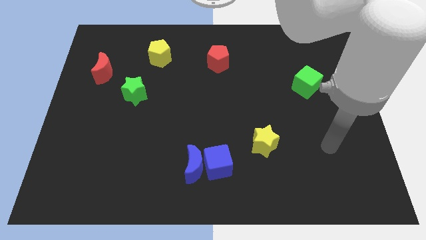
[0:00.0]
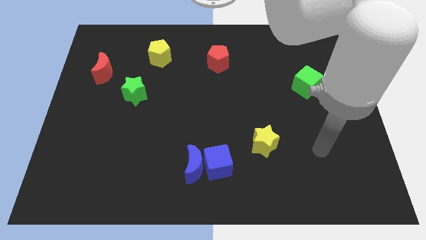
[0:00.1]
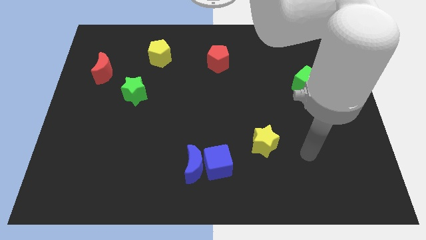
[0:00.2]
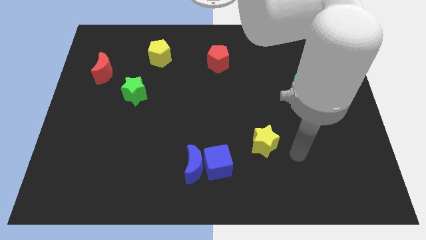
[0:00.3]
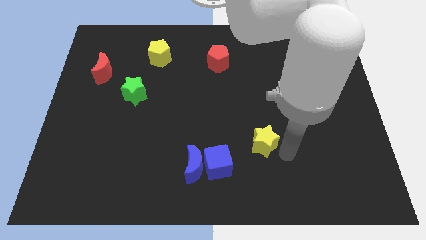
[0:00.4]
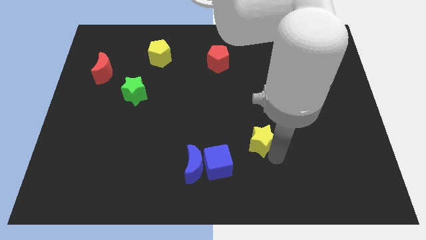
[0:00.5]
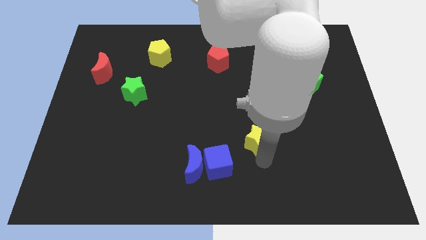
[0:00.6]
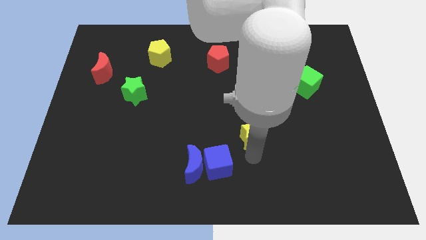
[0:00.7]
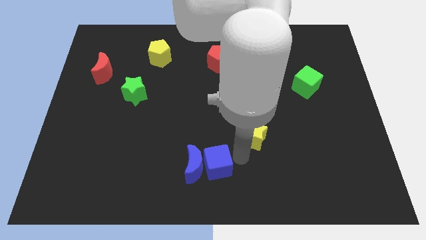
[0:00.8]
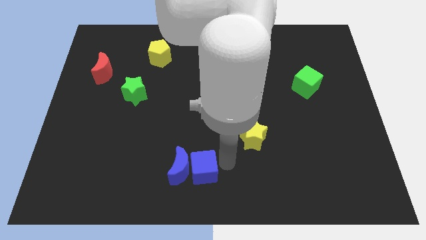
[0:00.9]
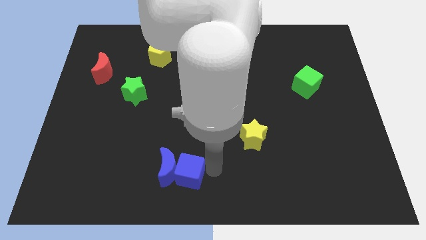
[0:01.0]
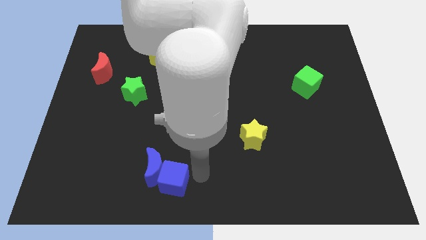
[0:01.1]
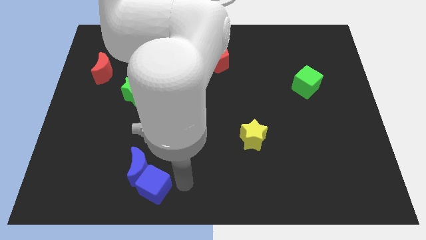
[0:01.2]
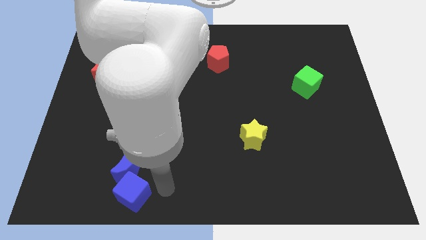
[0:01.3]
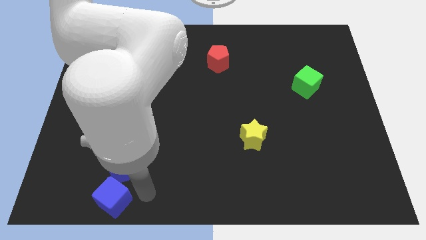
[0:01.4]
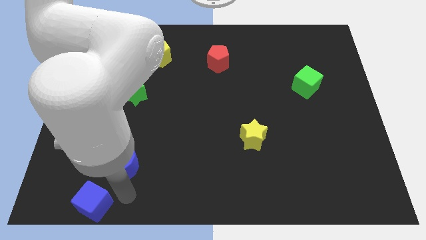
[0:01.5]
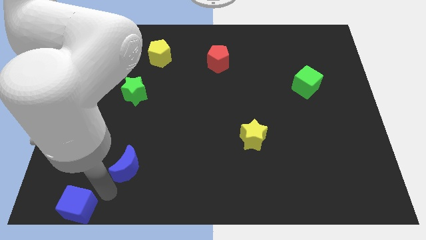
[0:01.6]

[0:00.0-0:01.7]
move the blue moon away from the blue cube

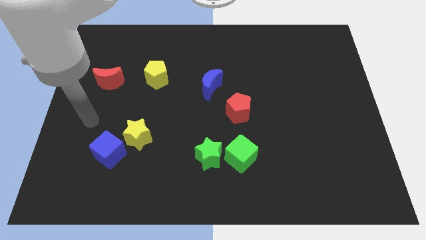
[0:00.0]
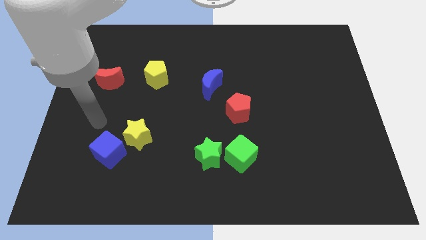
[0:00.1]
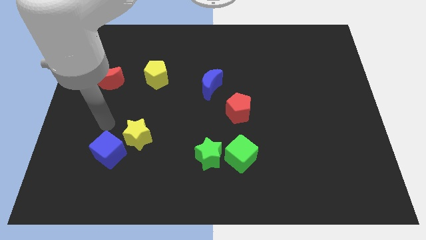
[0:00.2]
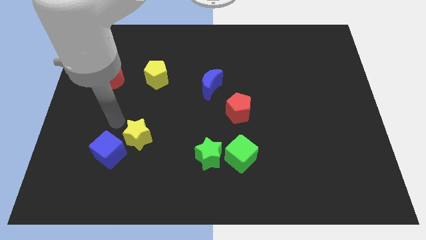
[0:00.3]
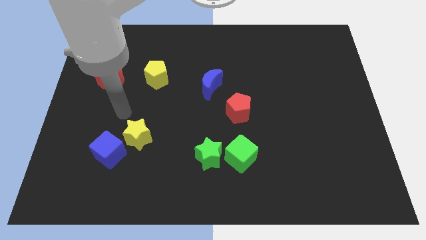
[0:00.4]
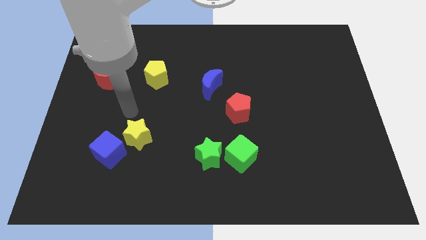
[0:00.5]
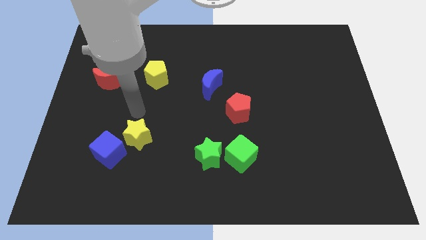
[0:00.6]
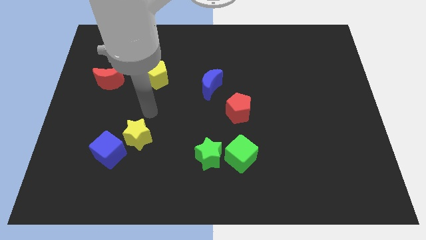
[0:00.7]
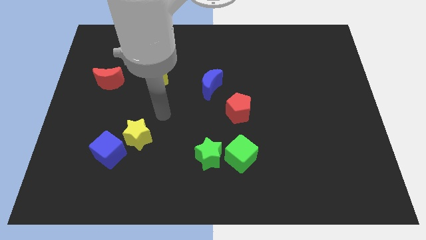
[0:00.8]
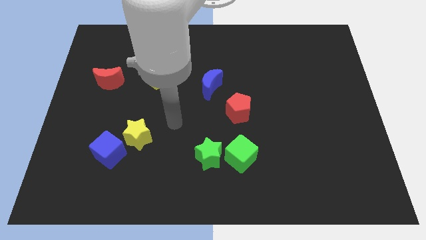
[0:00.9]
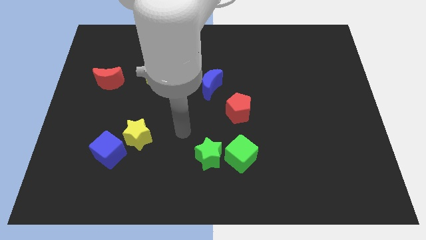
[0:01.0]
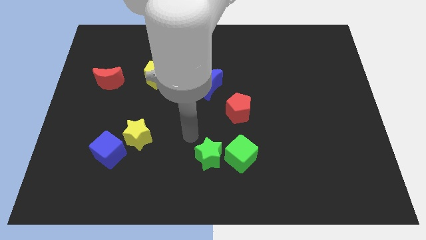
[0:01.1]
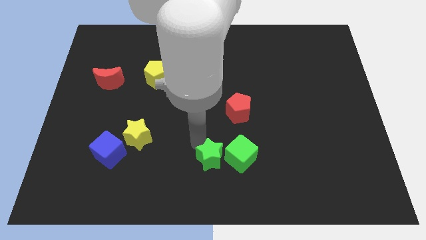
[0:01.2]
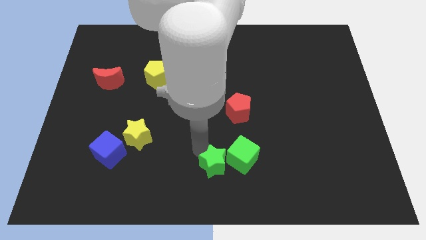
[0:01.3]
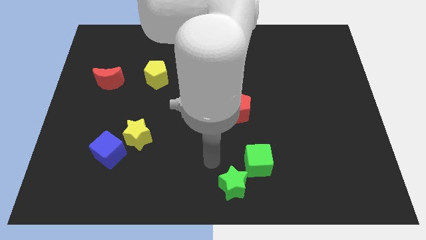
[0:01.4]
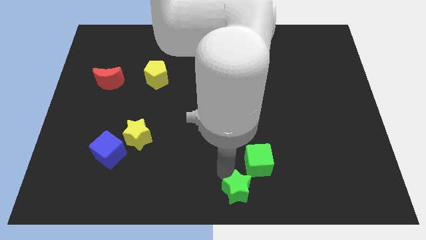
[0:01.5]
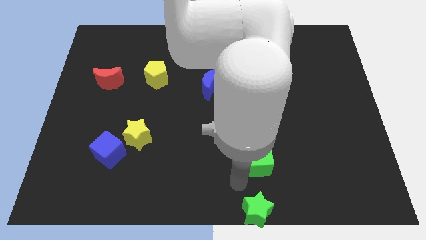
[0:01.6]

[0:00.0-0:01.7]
move the green cube away from the green star

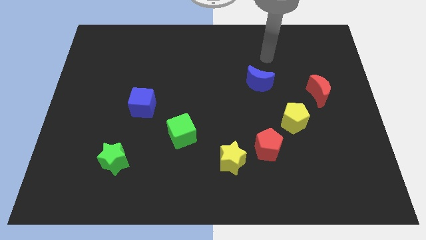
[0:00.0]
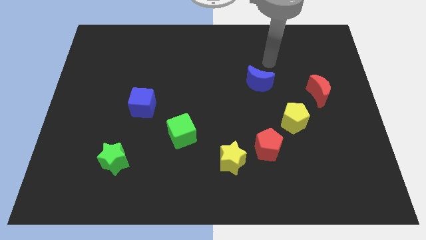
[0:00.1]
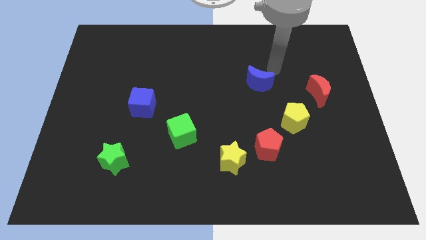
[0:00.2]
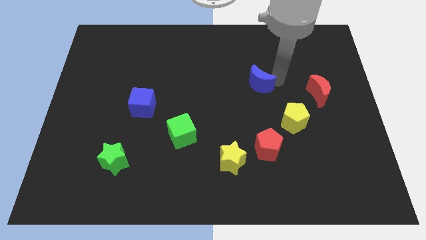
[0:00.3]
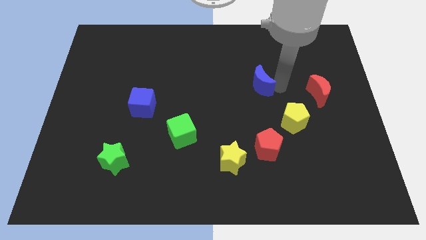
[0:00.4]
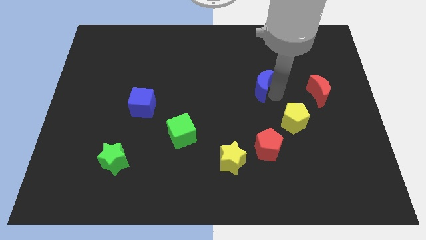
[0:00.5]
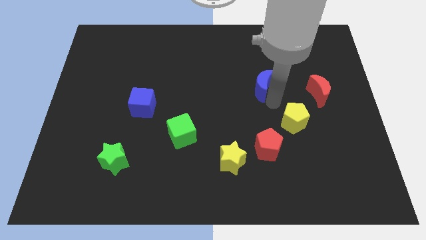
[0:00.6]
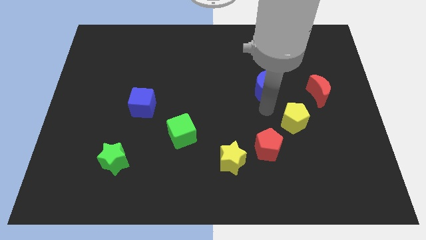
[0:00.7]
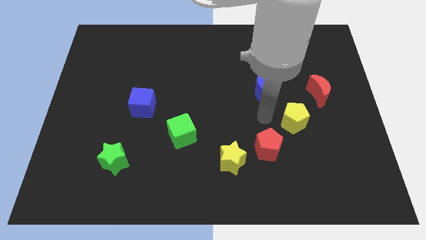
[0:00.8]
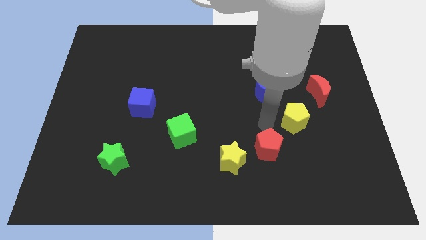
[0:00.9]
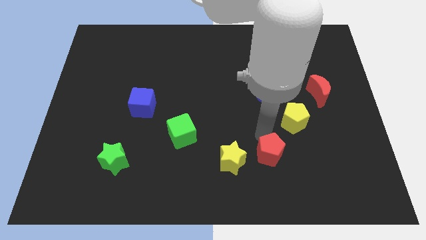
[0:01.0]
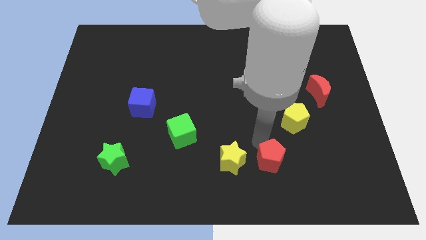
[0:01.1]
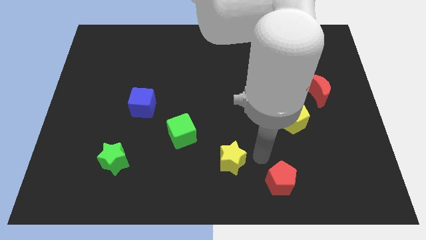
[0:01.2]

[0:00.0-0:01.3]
pull the yellow star apart from the red pentagon

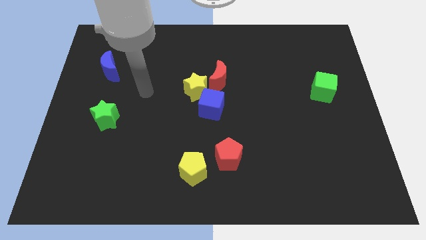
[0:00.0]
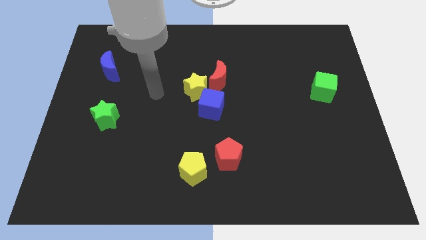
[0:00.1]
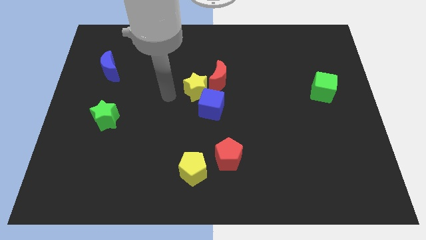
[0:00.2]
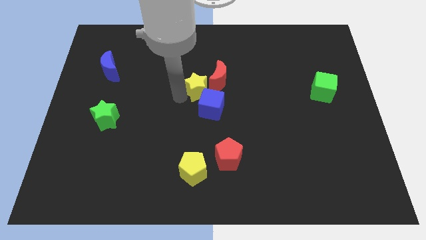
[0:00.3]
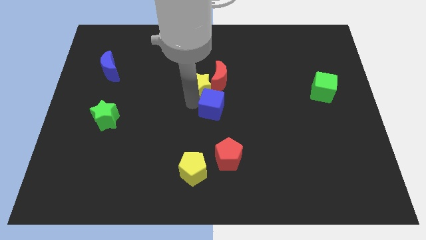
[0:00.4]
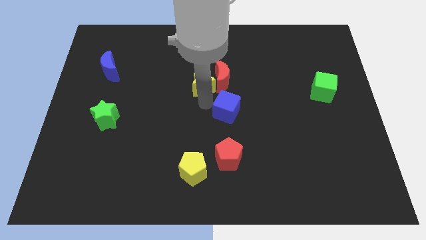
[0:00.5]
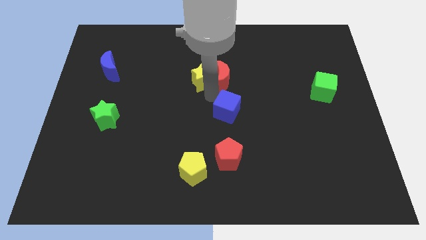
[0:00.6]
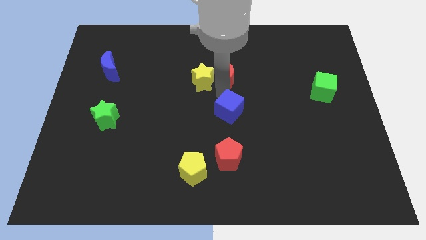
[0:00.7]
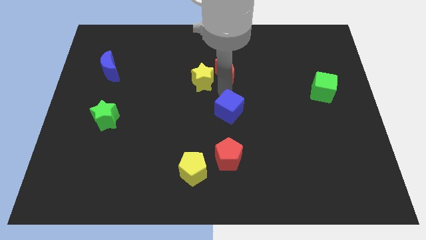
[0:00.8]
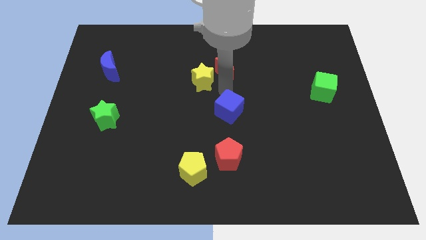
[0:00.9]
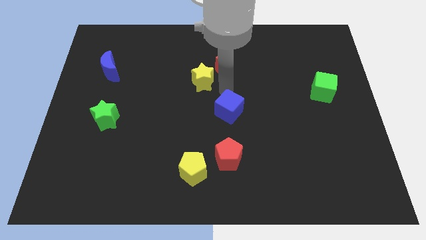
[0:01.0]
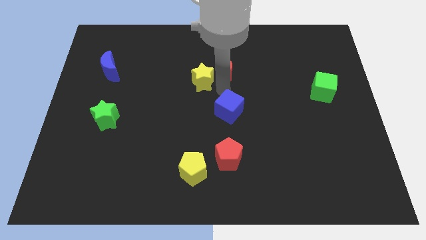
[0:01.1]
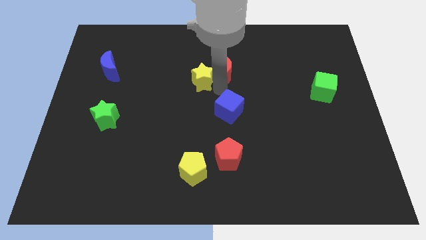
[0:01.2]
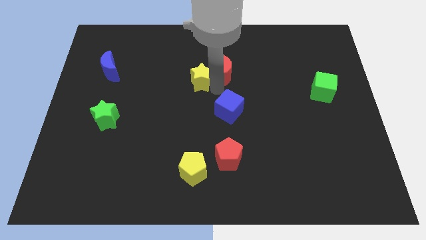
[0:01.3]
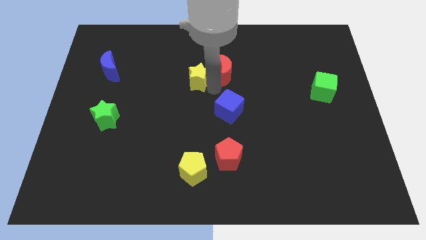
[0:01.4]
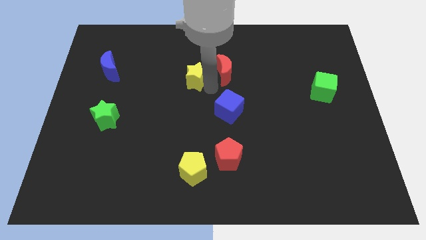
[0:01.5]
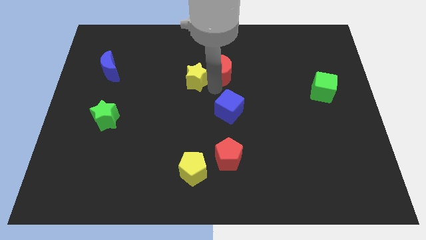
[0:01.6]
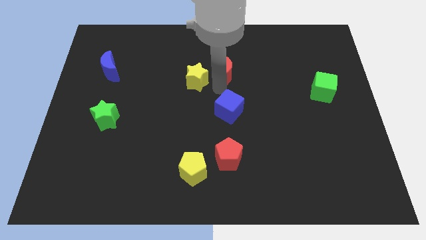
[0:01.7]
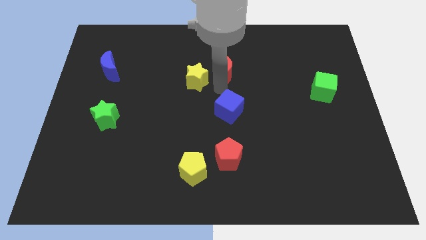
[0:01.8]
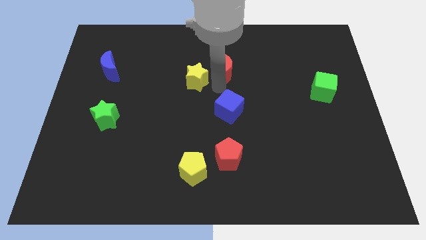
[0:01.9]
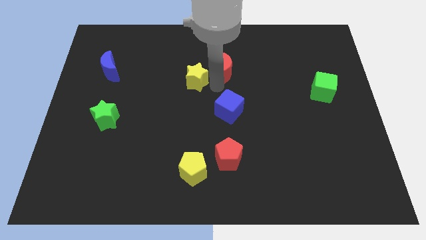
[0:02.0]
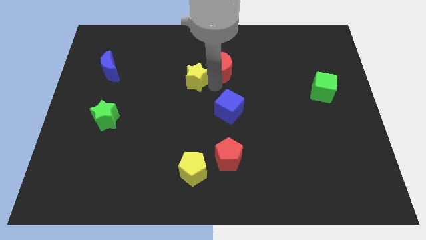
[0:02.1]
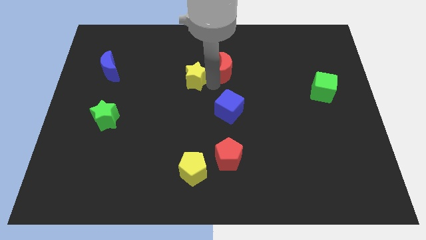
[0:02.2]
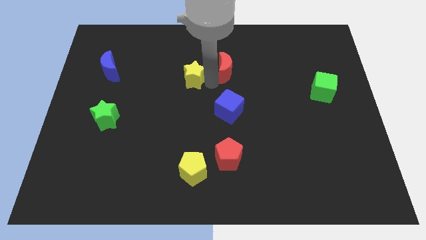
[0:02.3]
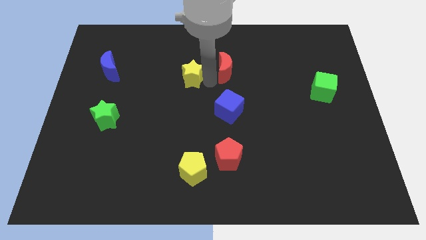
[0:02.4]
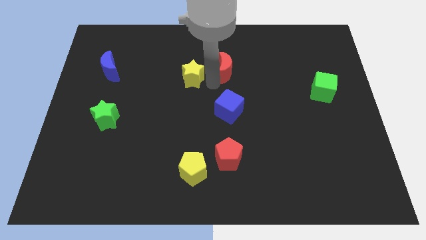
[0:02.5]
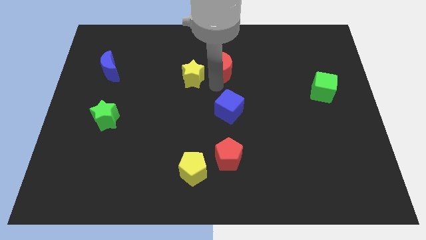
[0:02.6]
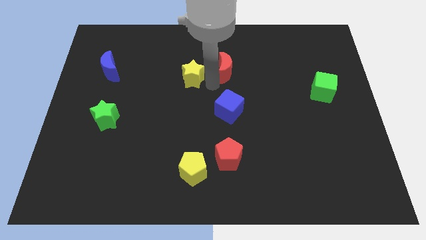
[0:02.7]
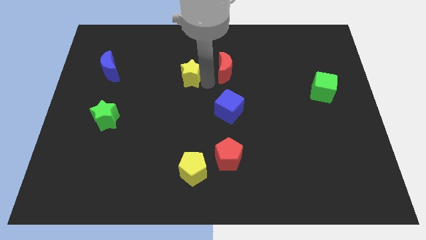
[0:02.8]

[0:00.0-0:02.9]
pull the yellow star apart from the red moon and blue cube

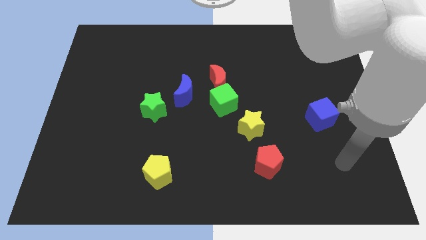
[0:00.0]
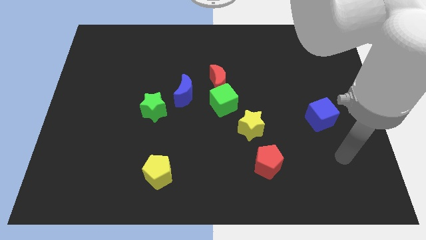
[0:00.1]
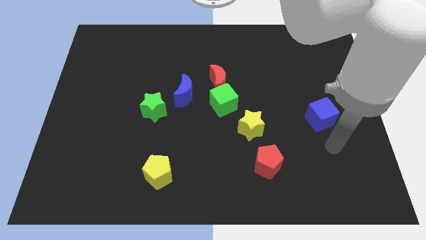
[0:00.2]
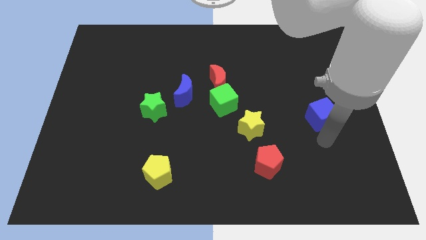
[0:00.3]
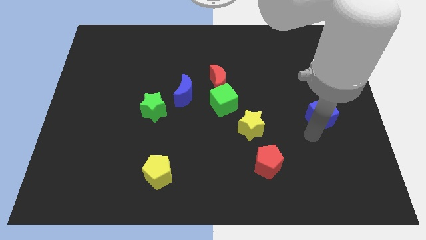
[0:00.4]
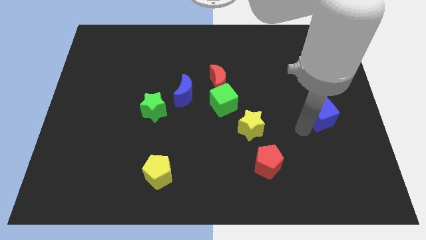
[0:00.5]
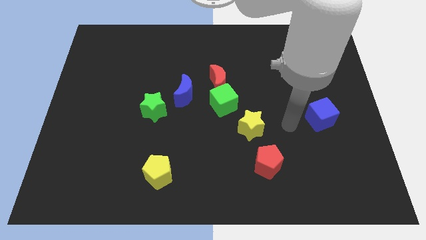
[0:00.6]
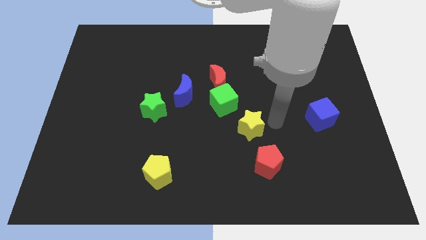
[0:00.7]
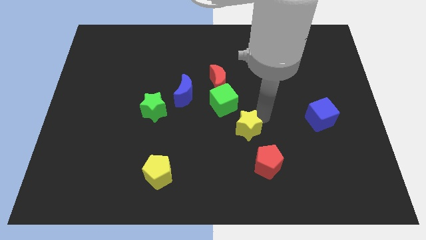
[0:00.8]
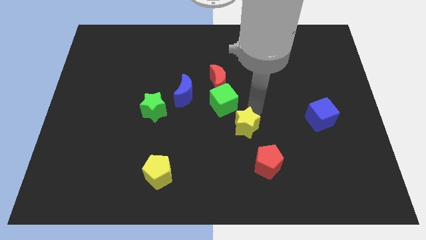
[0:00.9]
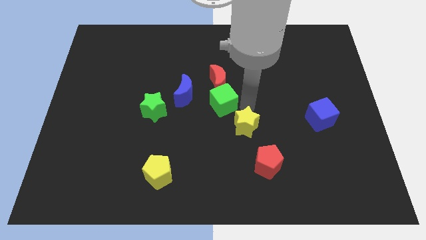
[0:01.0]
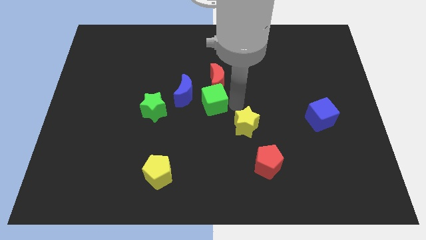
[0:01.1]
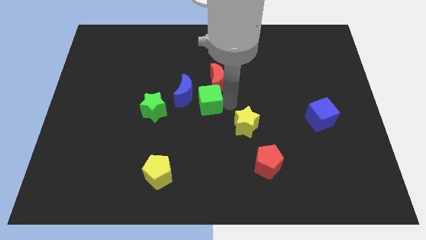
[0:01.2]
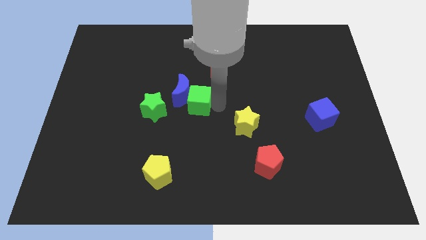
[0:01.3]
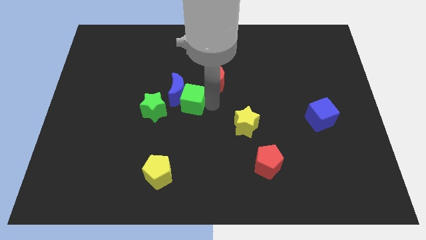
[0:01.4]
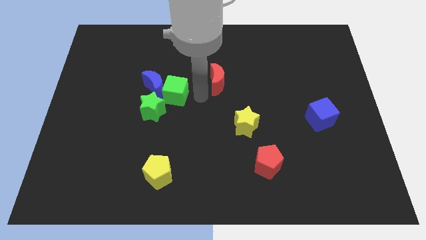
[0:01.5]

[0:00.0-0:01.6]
separate the red moon from the green cube and blue moon

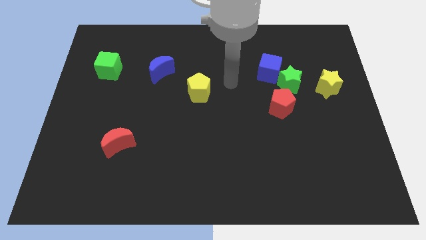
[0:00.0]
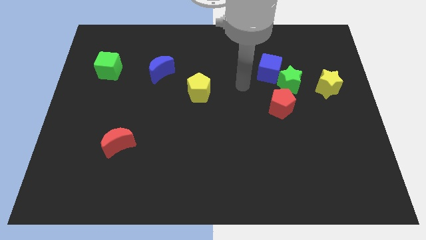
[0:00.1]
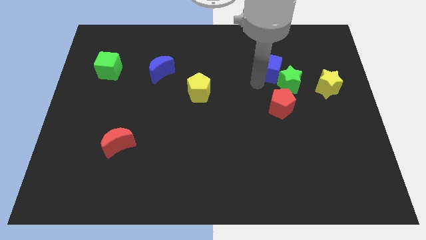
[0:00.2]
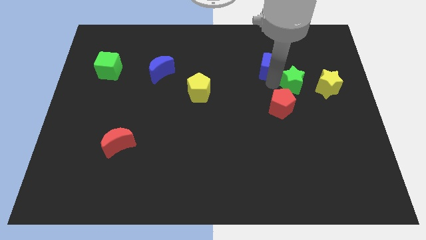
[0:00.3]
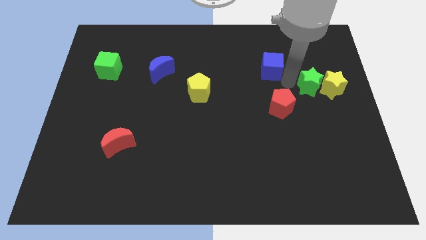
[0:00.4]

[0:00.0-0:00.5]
separate the blue cube from the green star
